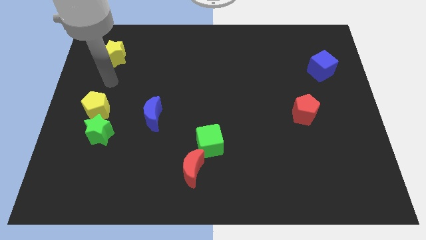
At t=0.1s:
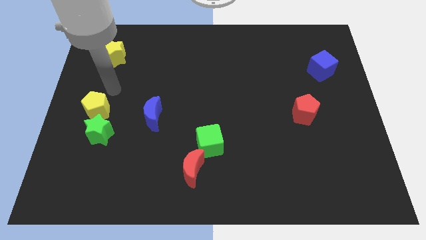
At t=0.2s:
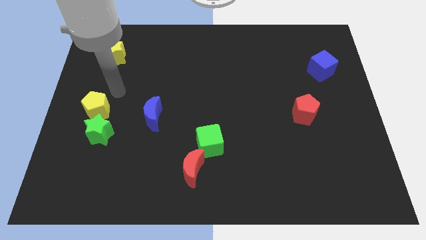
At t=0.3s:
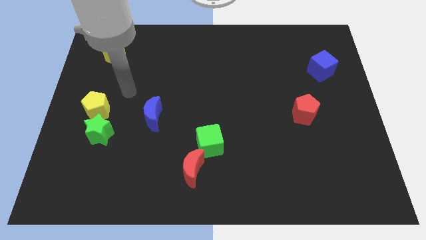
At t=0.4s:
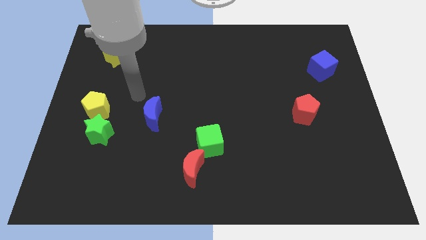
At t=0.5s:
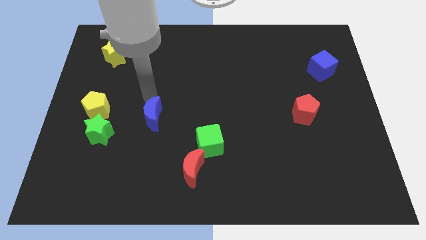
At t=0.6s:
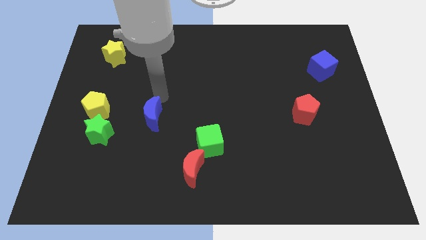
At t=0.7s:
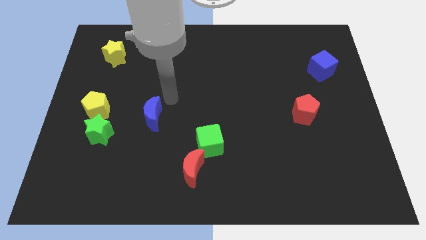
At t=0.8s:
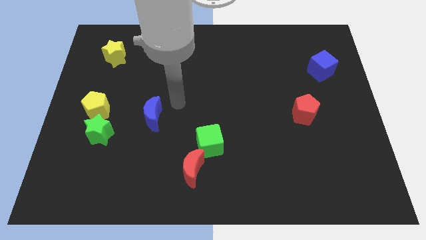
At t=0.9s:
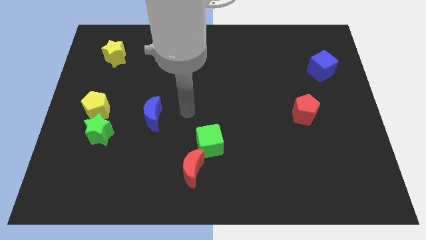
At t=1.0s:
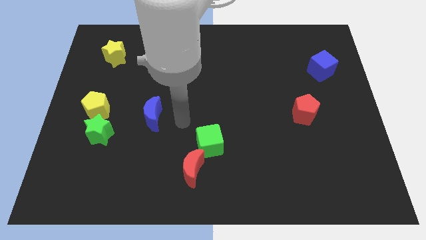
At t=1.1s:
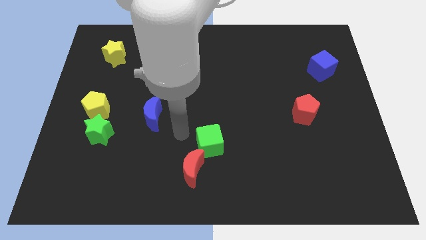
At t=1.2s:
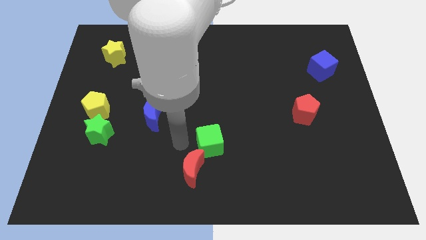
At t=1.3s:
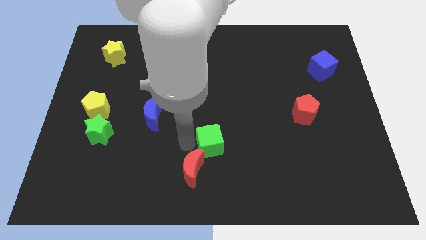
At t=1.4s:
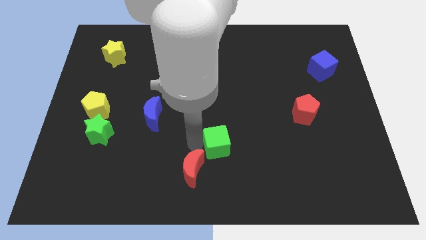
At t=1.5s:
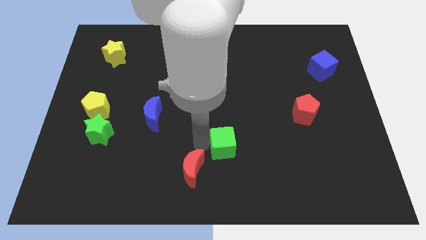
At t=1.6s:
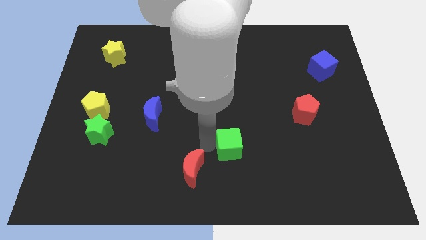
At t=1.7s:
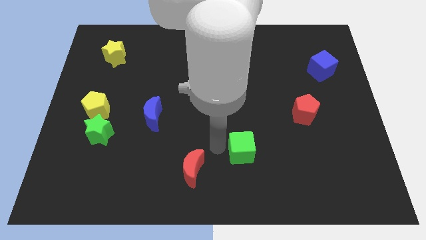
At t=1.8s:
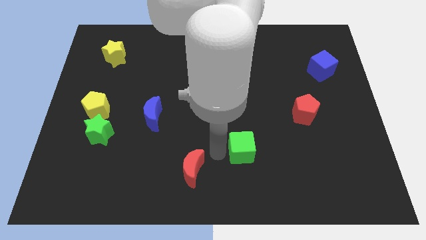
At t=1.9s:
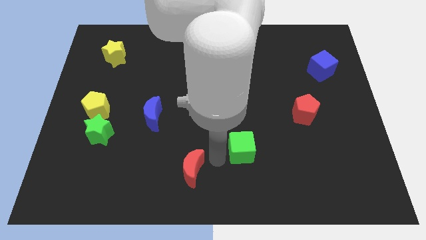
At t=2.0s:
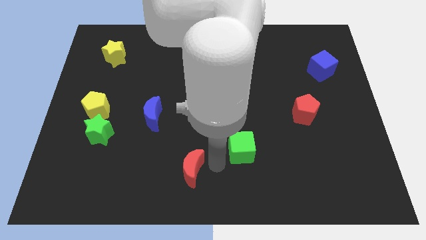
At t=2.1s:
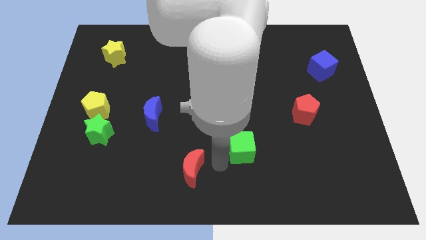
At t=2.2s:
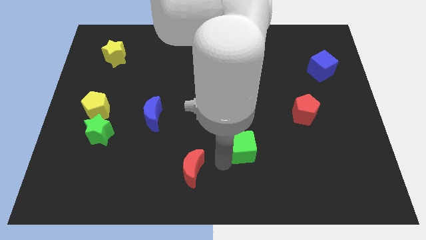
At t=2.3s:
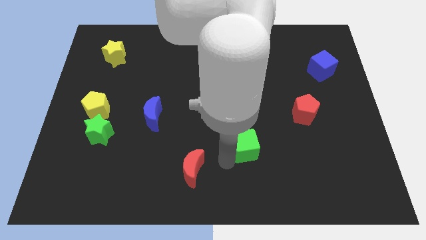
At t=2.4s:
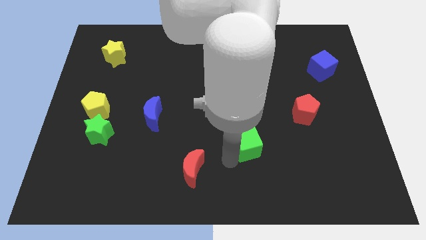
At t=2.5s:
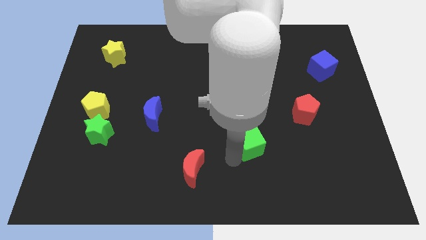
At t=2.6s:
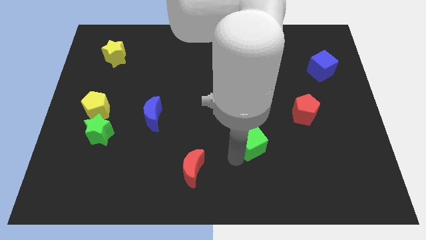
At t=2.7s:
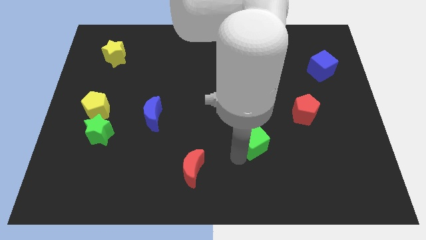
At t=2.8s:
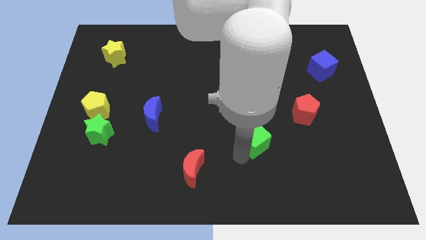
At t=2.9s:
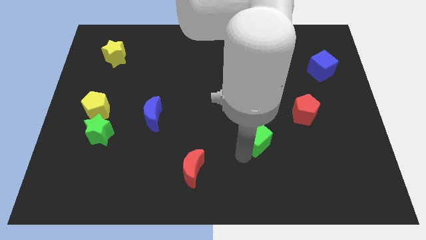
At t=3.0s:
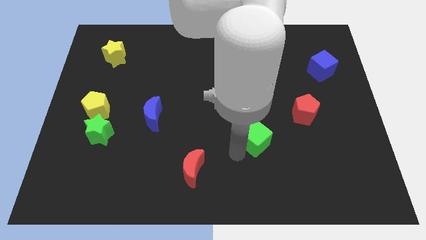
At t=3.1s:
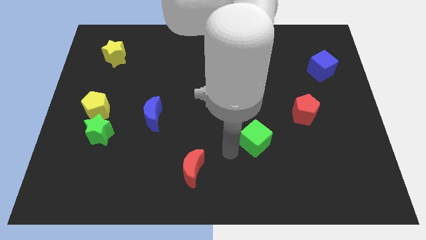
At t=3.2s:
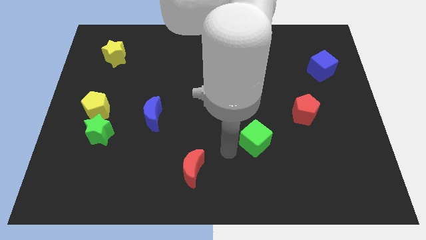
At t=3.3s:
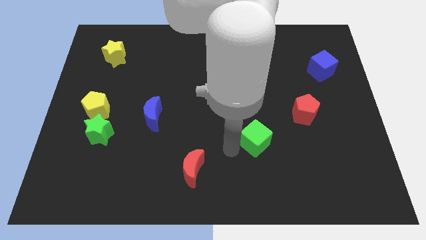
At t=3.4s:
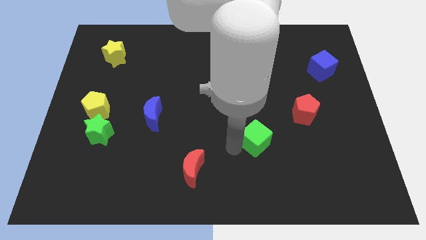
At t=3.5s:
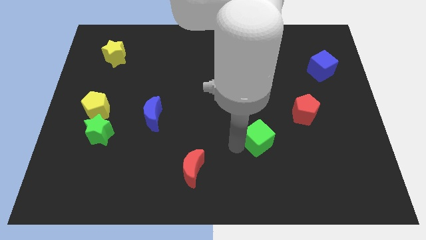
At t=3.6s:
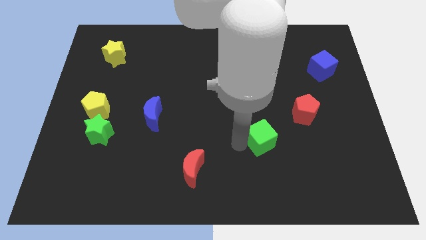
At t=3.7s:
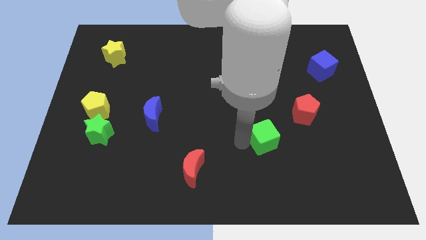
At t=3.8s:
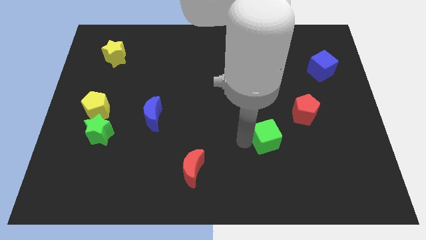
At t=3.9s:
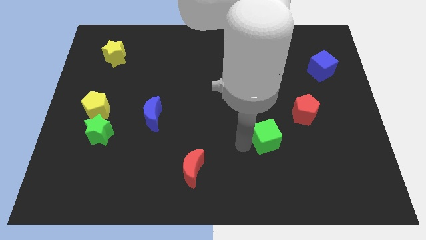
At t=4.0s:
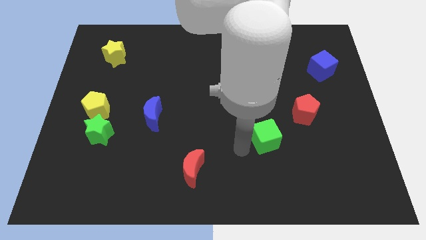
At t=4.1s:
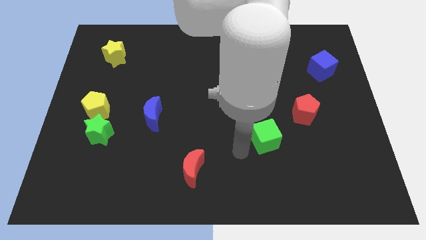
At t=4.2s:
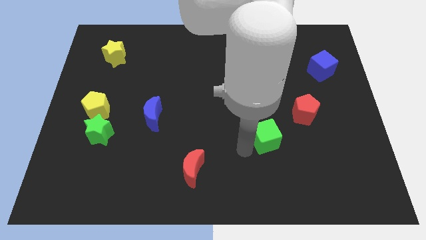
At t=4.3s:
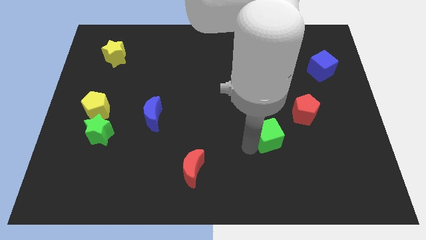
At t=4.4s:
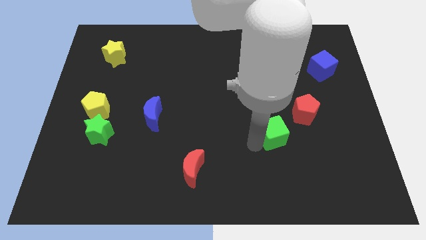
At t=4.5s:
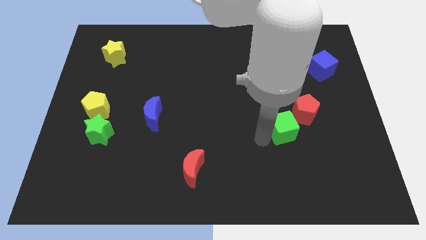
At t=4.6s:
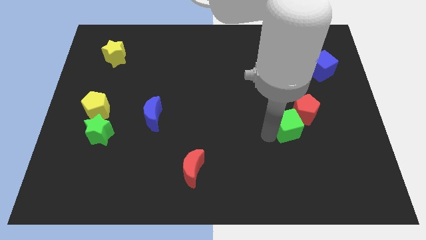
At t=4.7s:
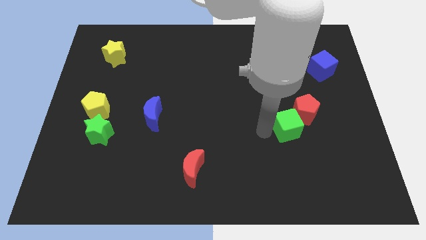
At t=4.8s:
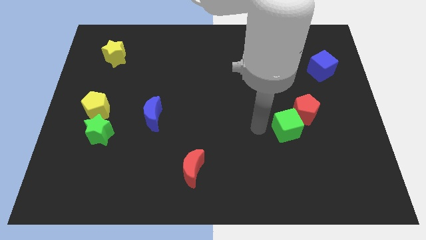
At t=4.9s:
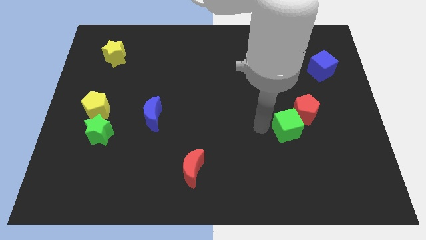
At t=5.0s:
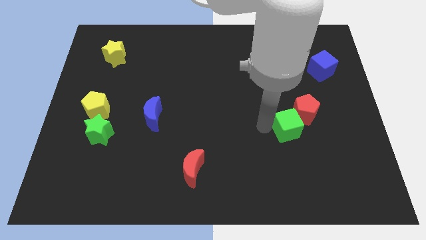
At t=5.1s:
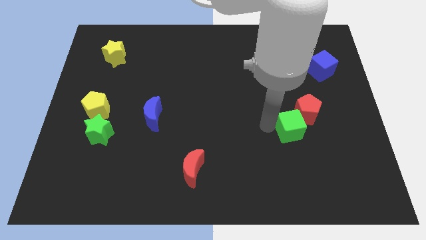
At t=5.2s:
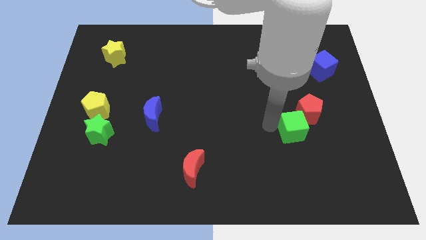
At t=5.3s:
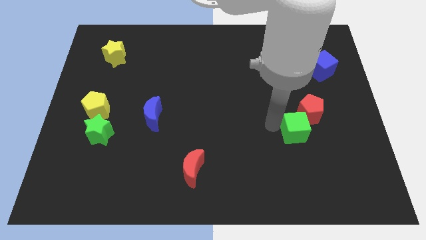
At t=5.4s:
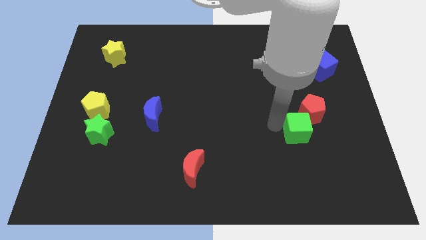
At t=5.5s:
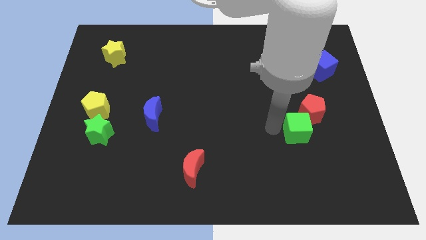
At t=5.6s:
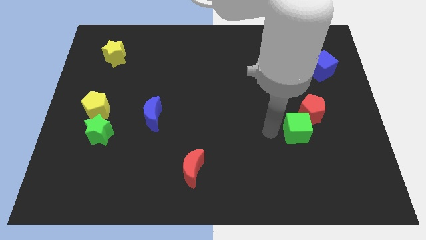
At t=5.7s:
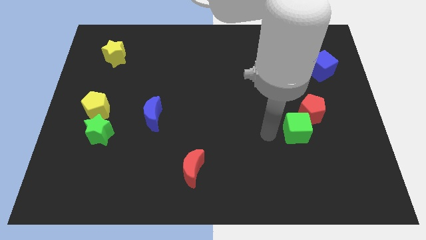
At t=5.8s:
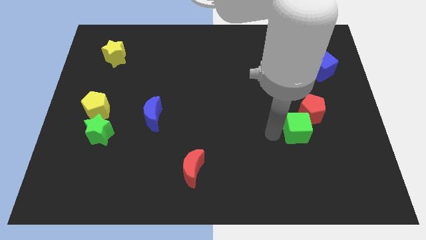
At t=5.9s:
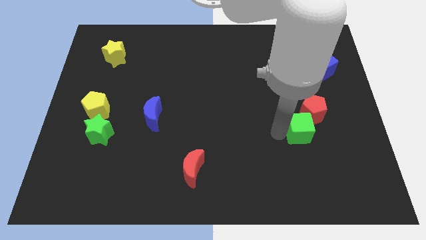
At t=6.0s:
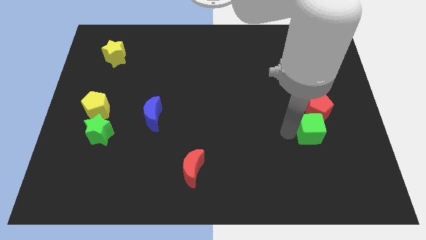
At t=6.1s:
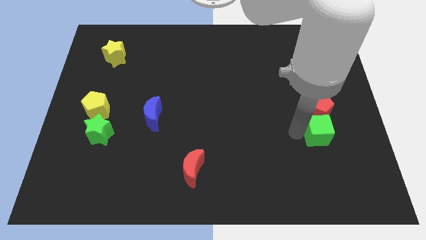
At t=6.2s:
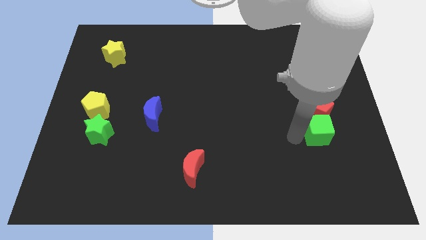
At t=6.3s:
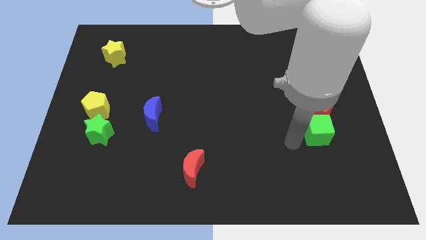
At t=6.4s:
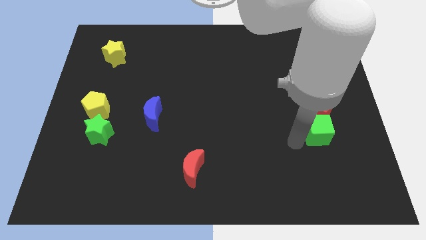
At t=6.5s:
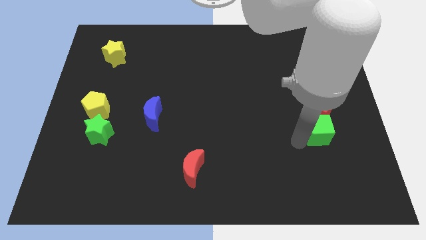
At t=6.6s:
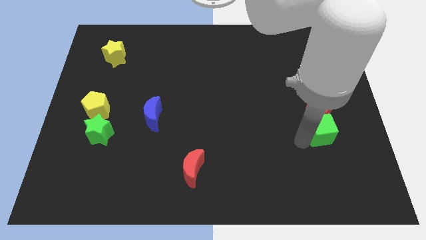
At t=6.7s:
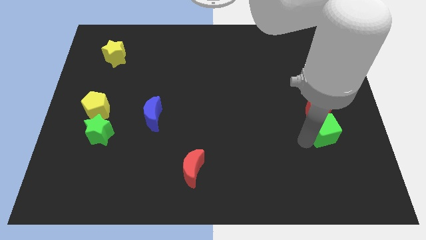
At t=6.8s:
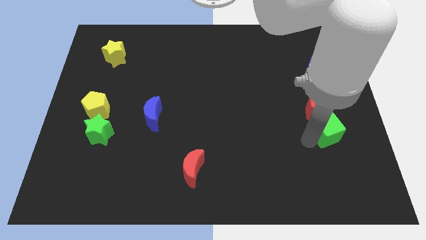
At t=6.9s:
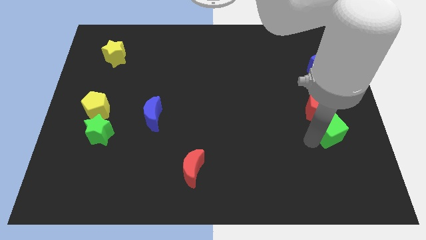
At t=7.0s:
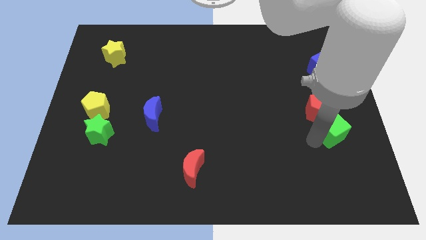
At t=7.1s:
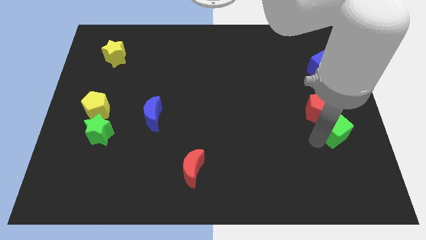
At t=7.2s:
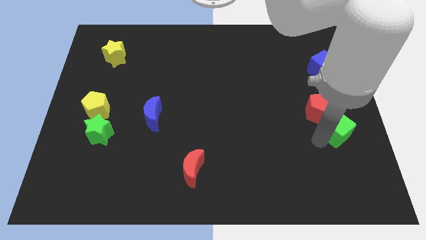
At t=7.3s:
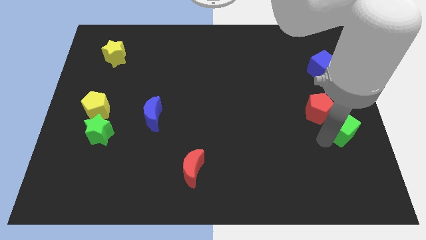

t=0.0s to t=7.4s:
slide the green cube to the right side of the board
